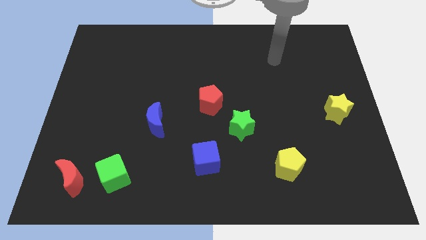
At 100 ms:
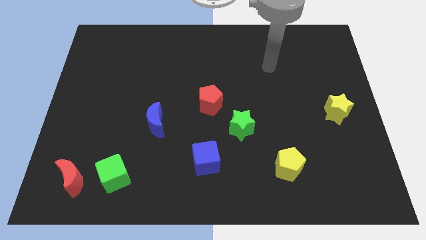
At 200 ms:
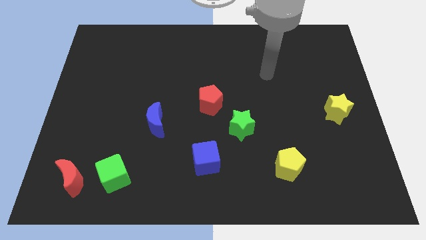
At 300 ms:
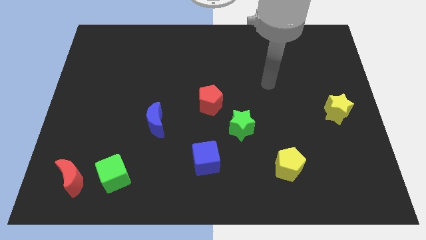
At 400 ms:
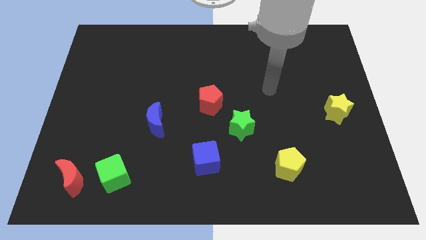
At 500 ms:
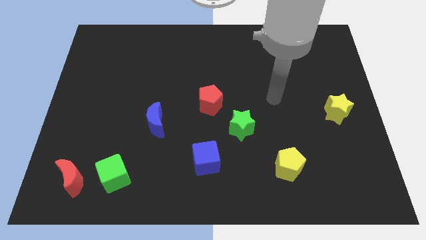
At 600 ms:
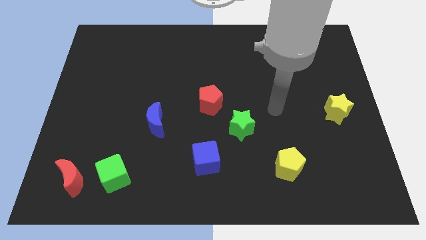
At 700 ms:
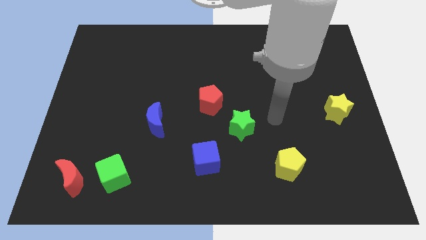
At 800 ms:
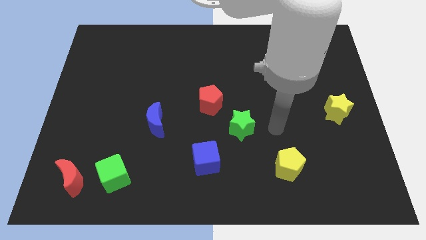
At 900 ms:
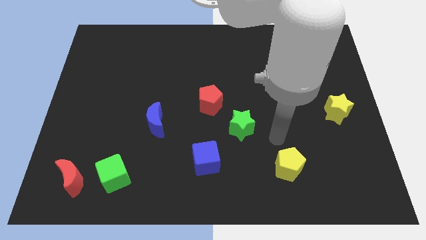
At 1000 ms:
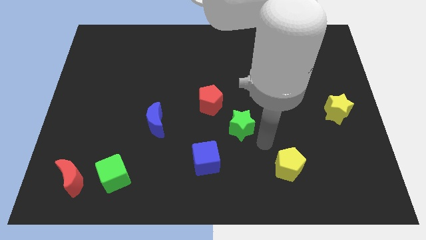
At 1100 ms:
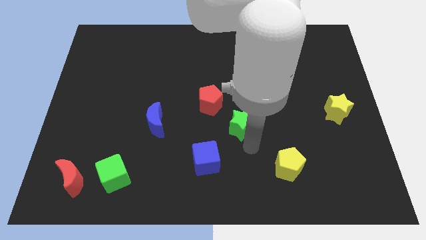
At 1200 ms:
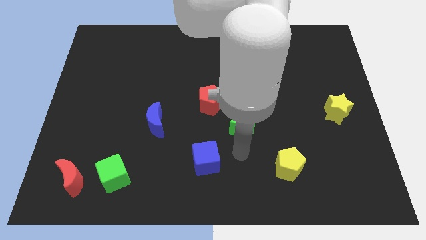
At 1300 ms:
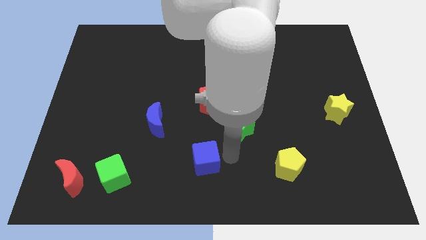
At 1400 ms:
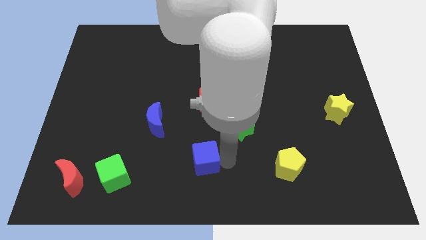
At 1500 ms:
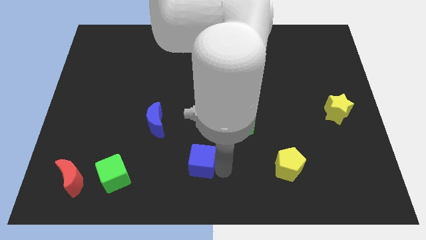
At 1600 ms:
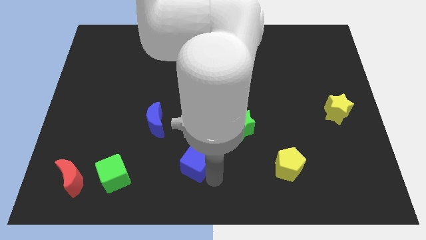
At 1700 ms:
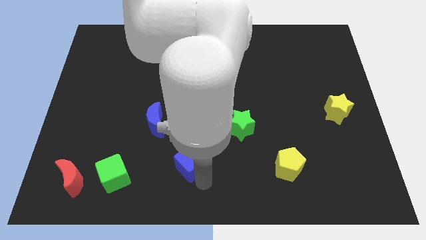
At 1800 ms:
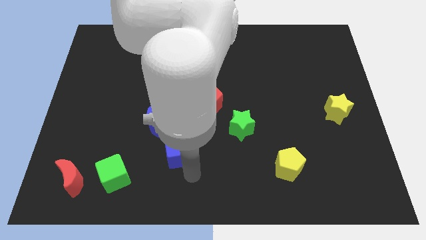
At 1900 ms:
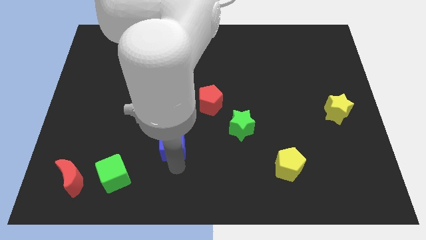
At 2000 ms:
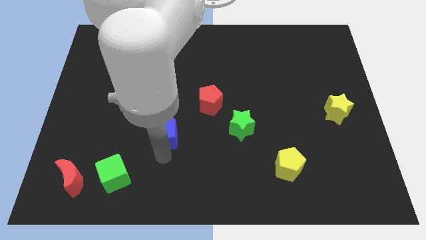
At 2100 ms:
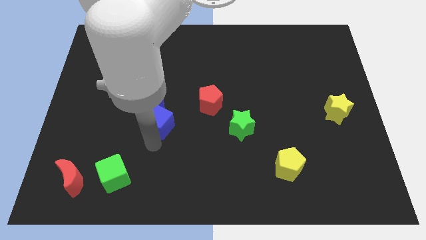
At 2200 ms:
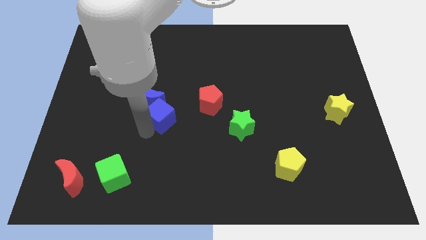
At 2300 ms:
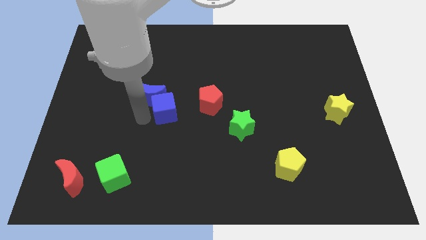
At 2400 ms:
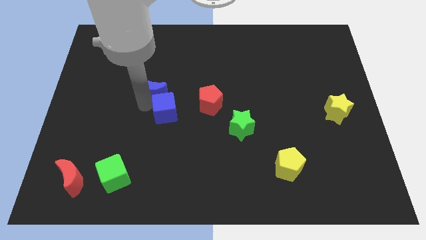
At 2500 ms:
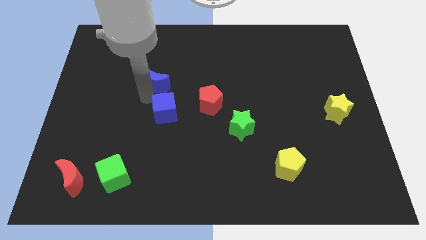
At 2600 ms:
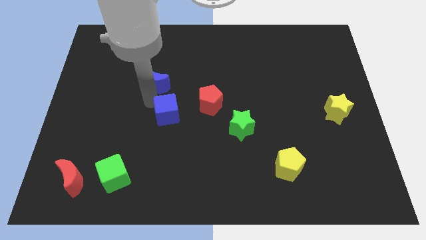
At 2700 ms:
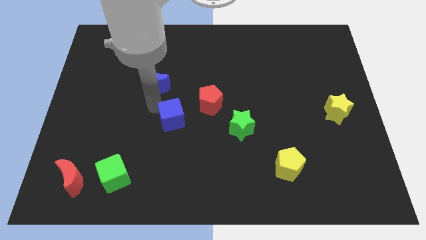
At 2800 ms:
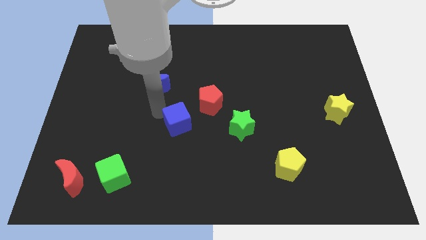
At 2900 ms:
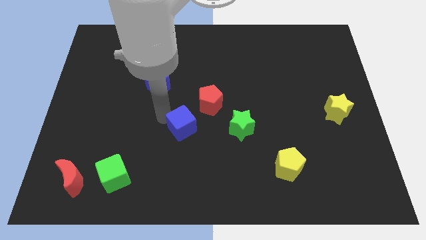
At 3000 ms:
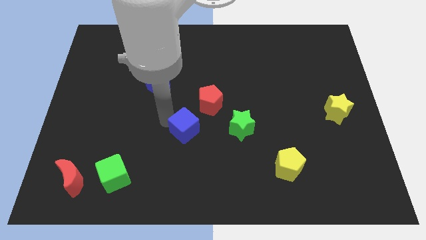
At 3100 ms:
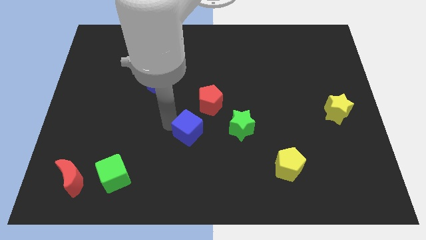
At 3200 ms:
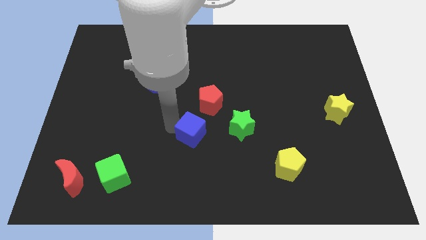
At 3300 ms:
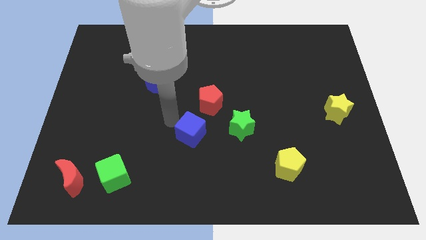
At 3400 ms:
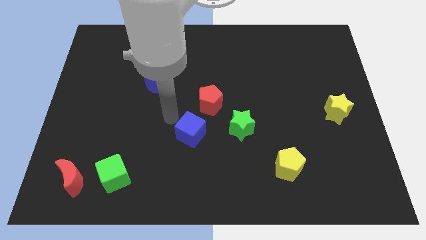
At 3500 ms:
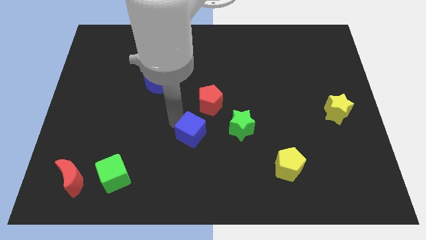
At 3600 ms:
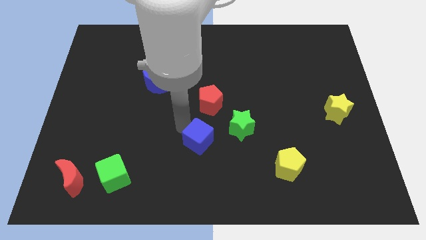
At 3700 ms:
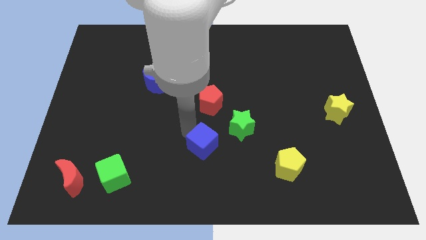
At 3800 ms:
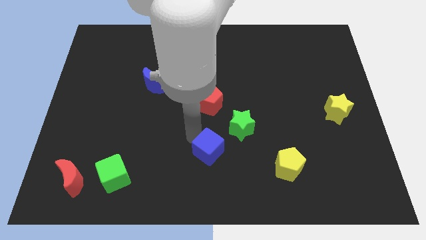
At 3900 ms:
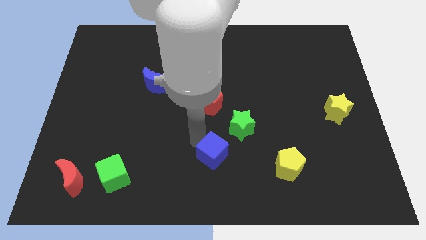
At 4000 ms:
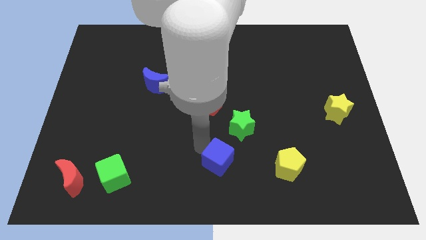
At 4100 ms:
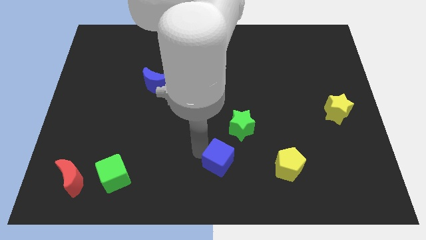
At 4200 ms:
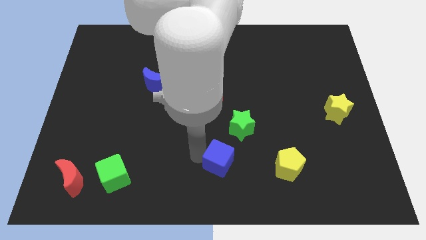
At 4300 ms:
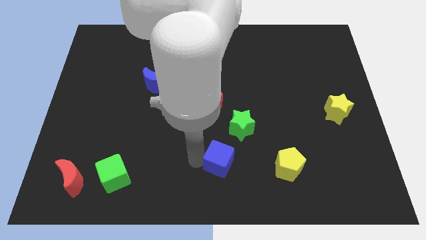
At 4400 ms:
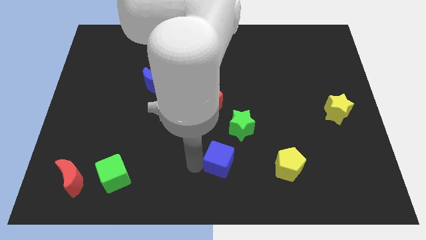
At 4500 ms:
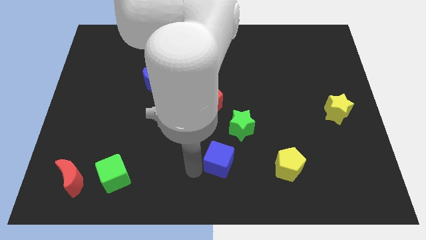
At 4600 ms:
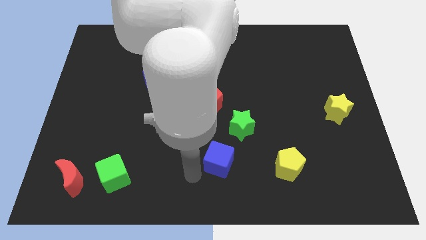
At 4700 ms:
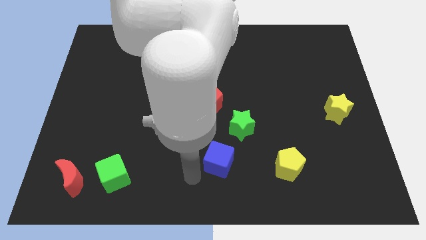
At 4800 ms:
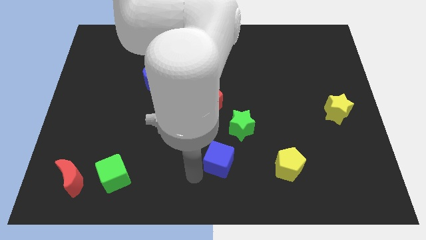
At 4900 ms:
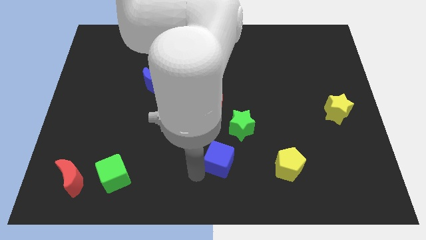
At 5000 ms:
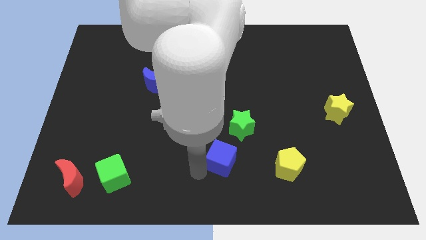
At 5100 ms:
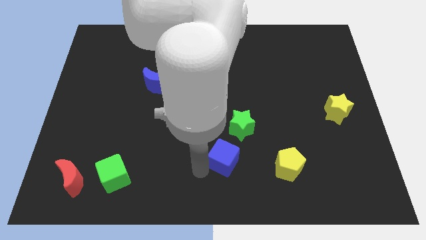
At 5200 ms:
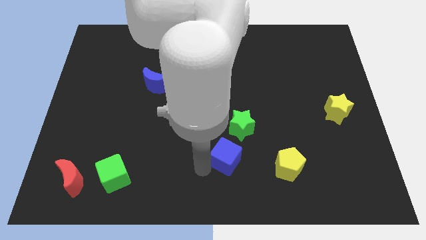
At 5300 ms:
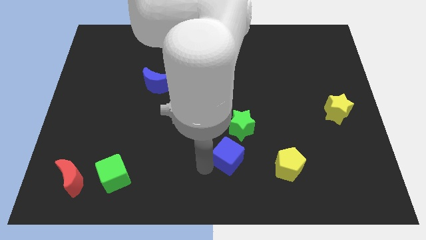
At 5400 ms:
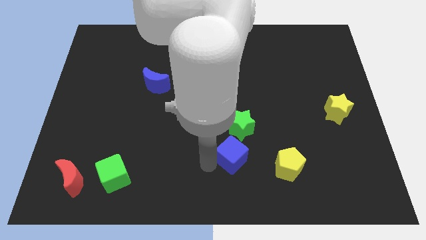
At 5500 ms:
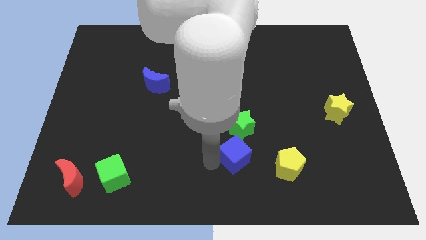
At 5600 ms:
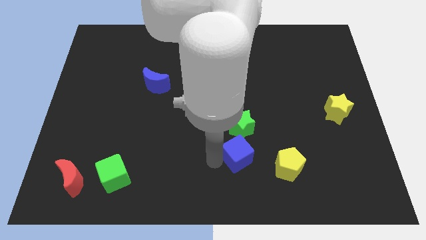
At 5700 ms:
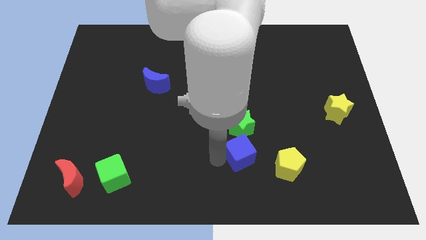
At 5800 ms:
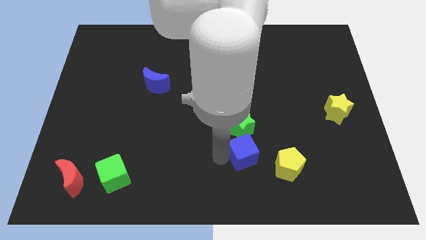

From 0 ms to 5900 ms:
slide the blue cube to the top left of the yellow pentagon

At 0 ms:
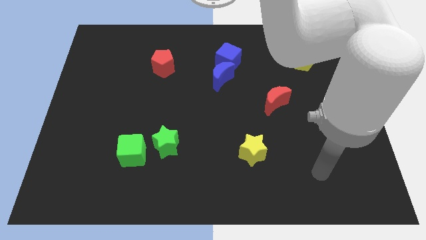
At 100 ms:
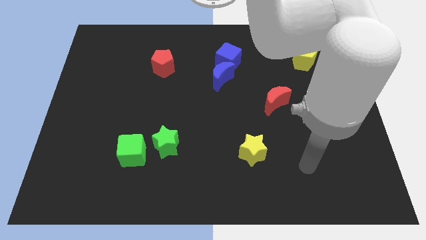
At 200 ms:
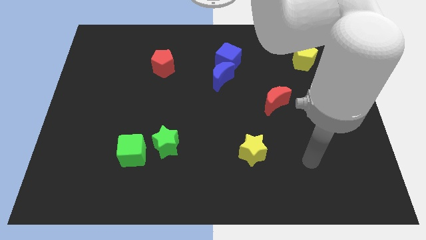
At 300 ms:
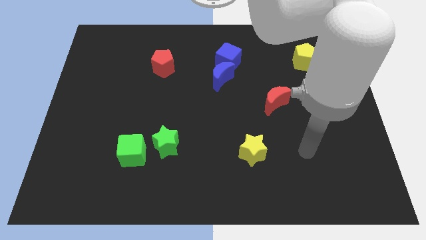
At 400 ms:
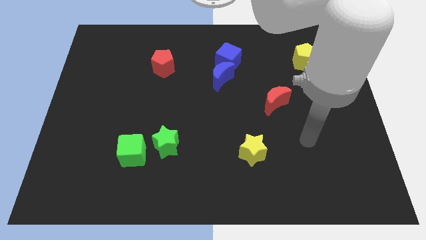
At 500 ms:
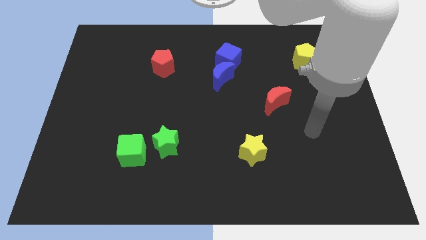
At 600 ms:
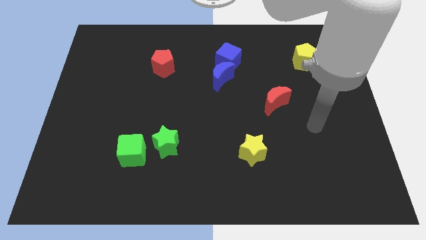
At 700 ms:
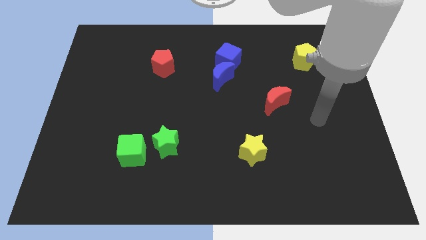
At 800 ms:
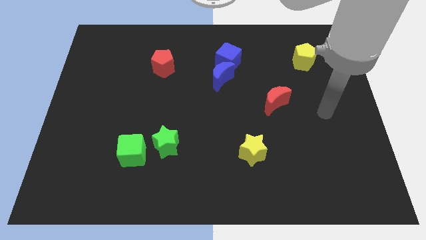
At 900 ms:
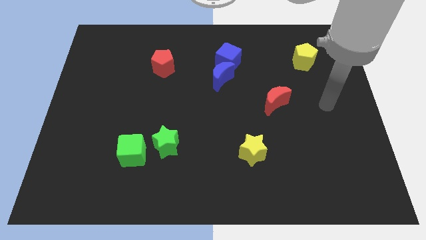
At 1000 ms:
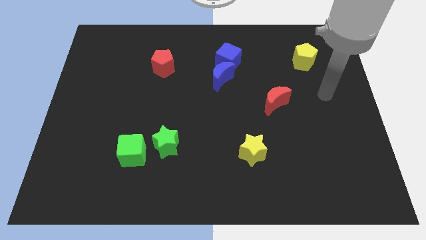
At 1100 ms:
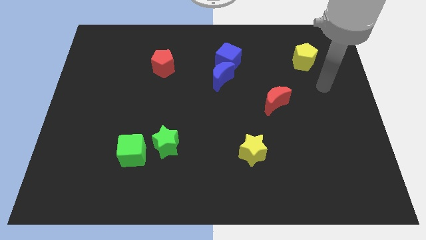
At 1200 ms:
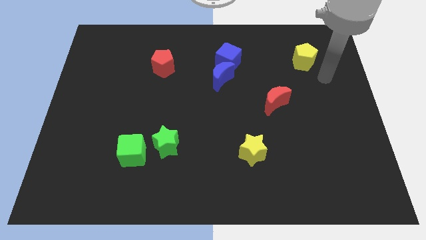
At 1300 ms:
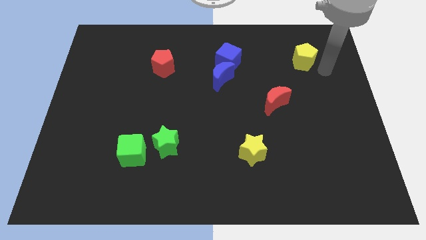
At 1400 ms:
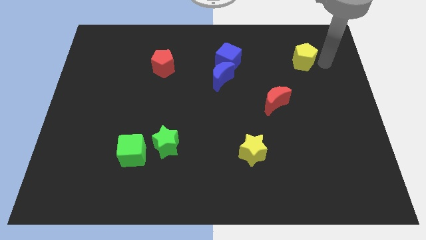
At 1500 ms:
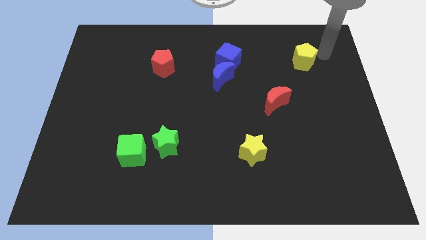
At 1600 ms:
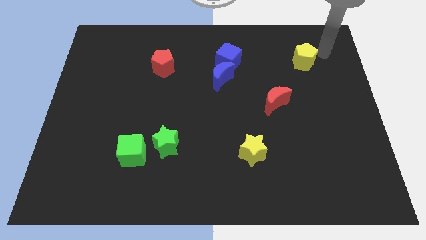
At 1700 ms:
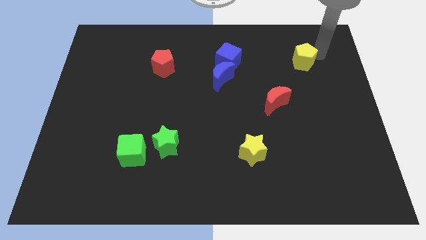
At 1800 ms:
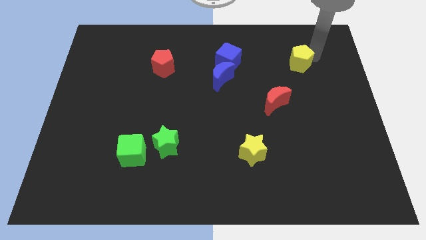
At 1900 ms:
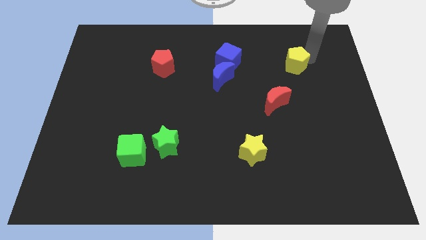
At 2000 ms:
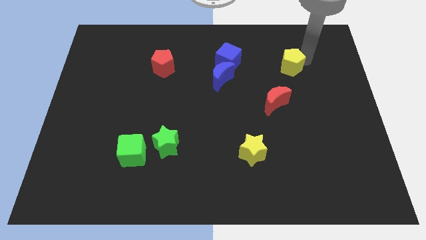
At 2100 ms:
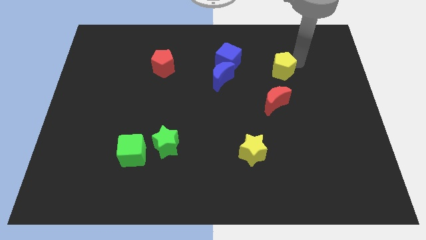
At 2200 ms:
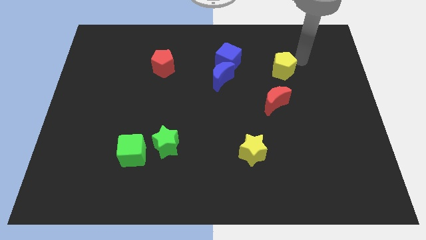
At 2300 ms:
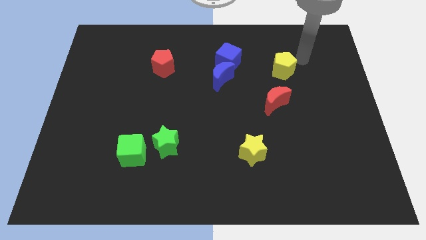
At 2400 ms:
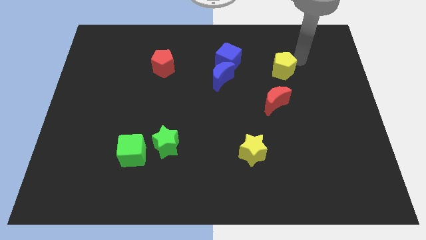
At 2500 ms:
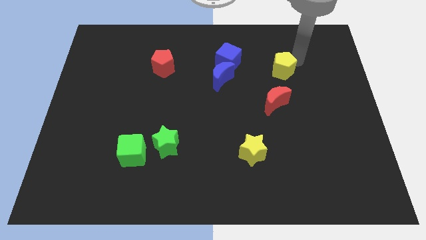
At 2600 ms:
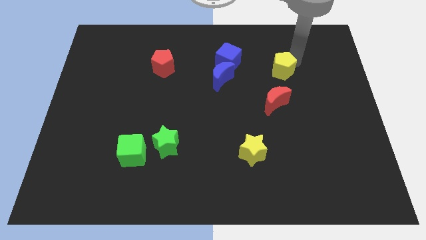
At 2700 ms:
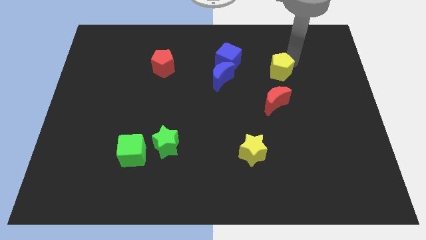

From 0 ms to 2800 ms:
put the yellow pentagon to the right of the blue moon
